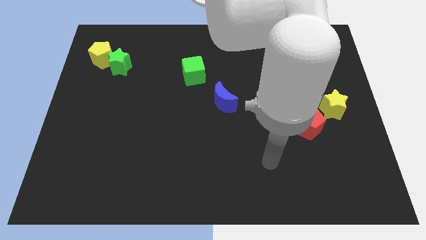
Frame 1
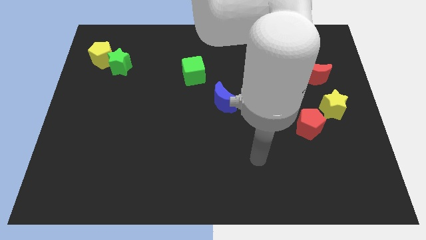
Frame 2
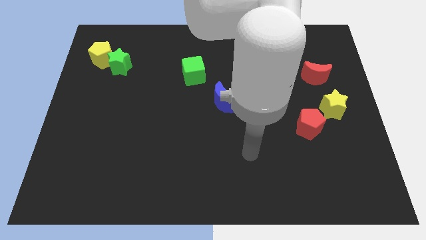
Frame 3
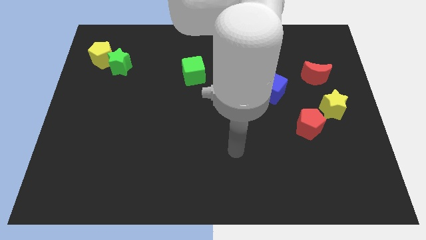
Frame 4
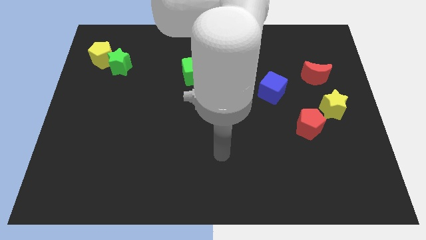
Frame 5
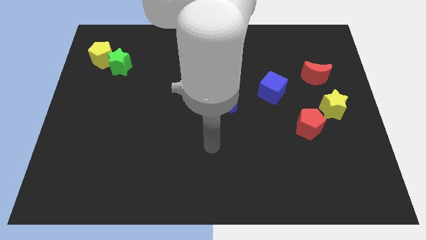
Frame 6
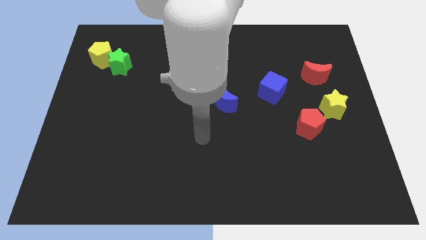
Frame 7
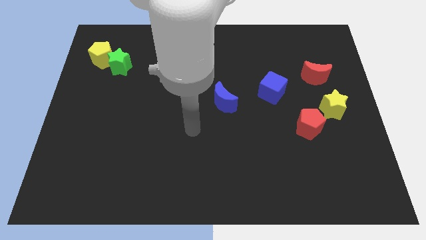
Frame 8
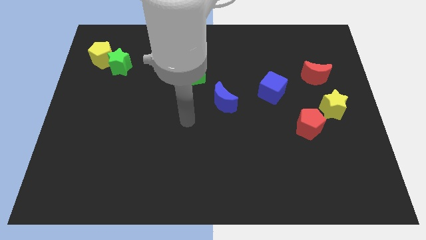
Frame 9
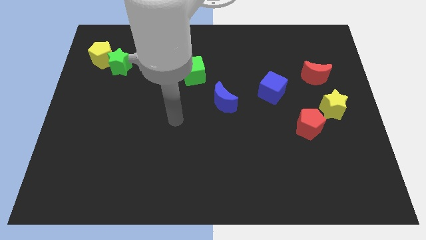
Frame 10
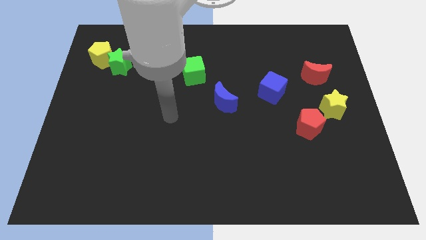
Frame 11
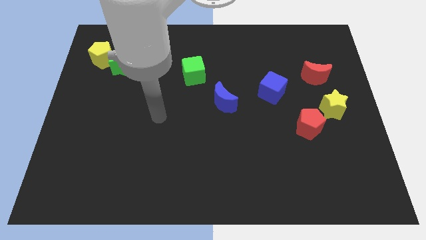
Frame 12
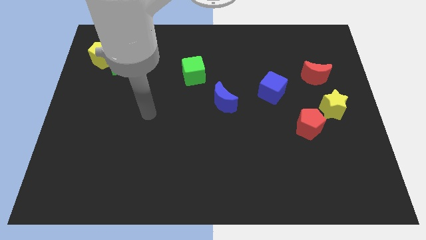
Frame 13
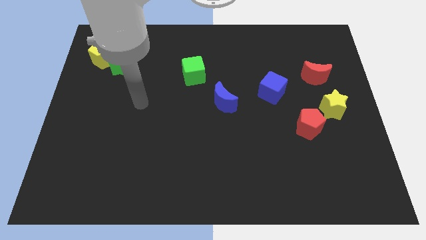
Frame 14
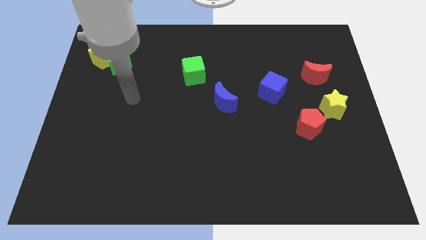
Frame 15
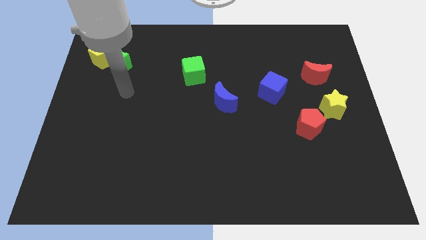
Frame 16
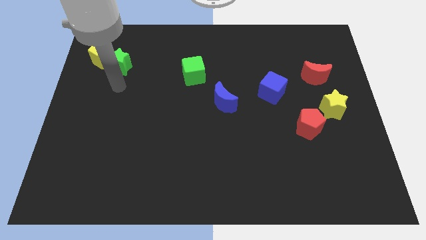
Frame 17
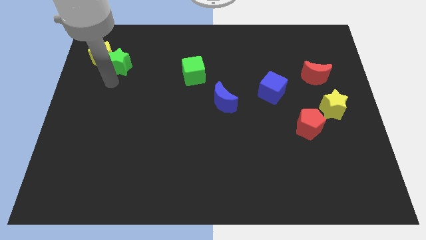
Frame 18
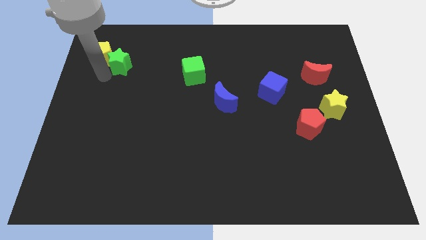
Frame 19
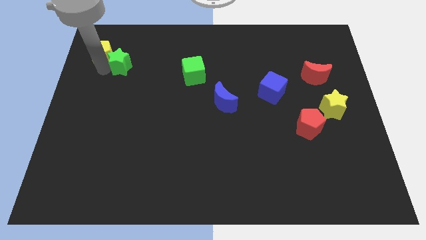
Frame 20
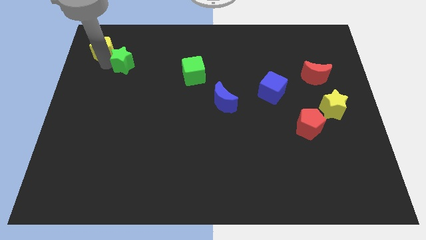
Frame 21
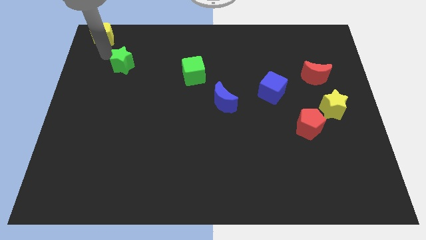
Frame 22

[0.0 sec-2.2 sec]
pull the green star apart from the yellow pentagon

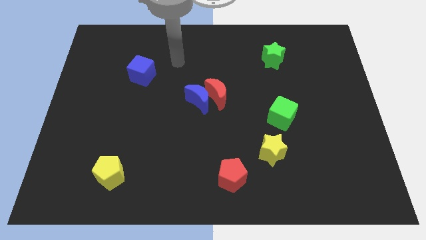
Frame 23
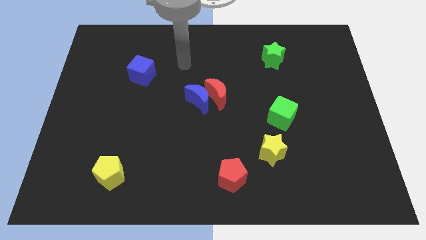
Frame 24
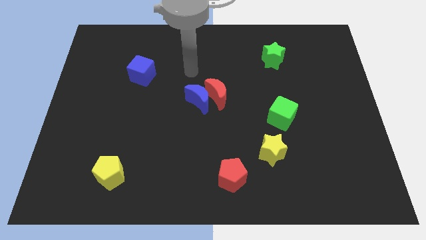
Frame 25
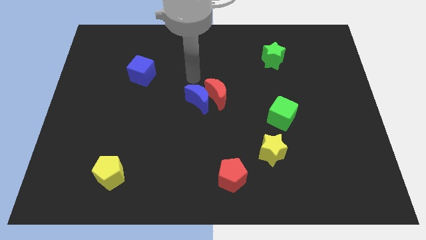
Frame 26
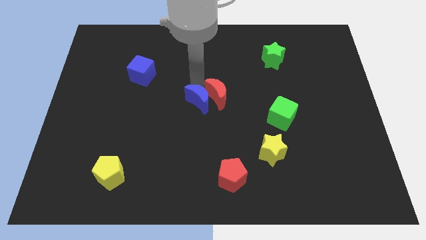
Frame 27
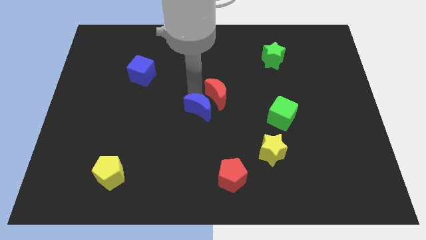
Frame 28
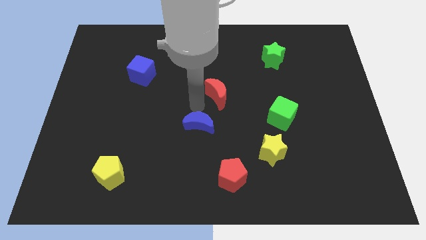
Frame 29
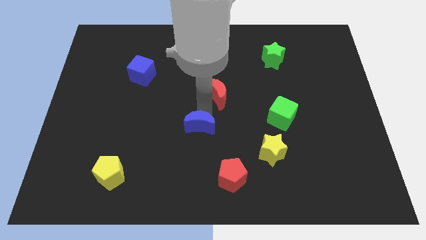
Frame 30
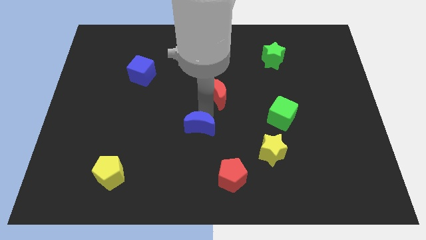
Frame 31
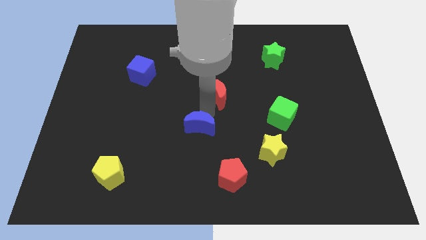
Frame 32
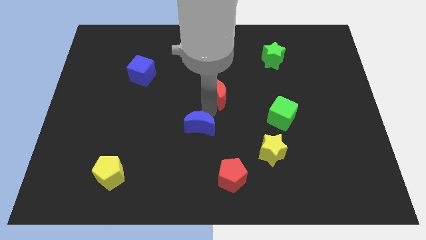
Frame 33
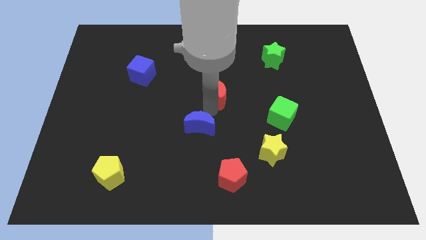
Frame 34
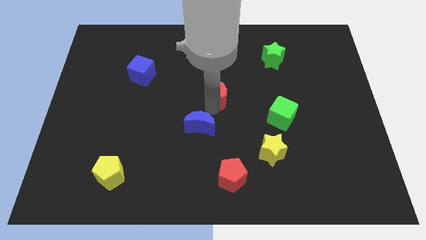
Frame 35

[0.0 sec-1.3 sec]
separate the red moon from the blue moon

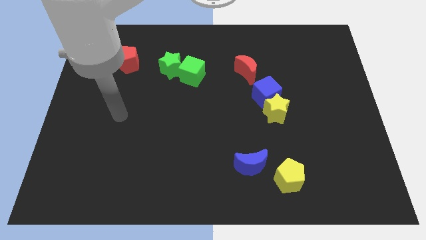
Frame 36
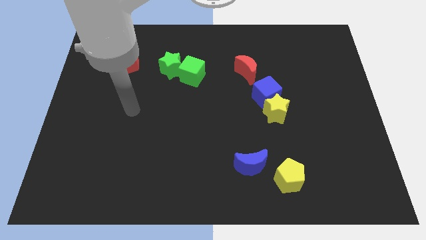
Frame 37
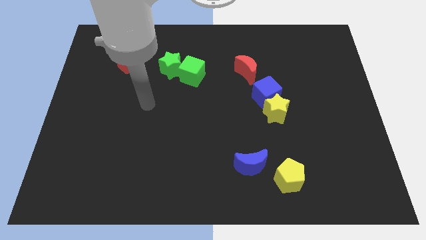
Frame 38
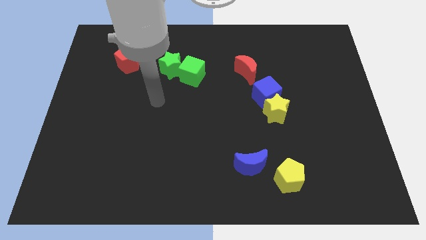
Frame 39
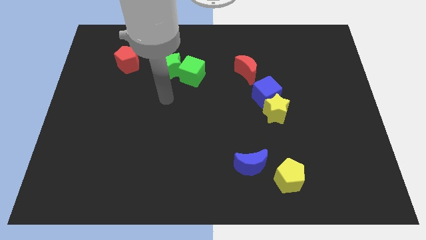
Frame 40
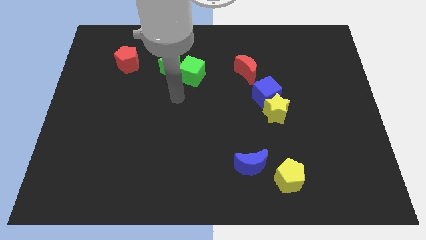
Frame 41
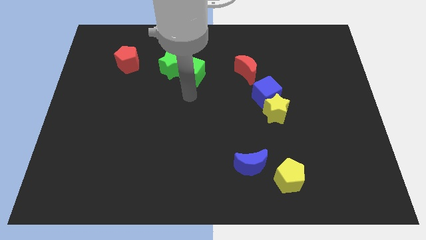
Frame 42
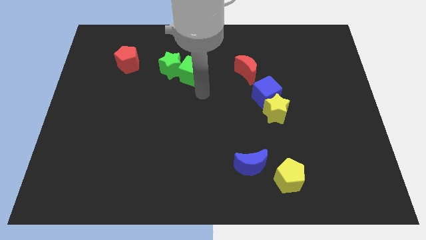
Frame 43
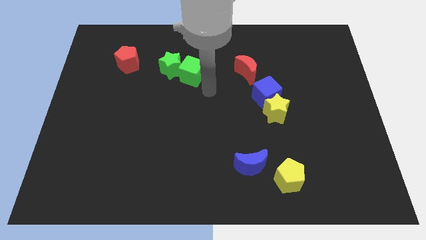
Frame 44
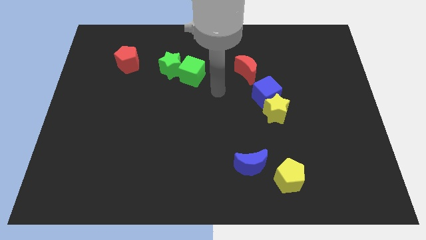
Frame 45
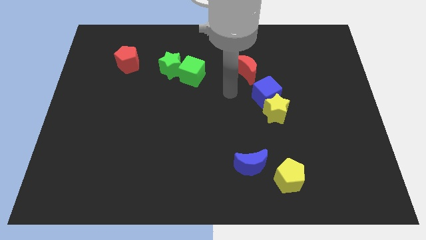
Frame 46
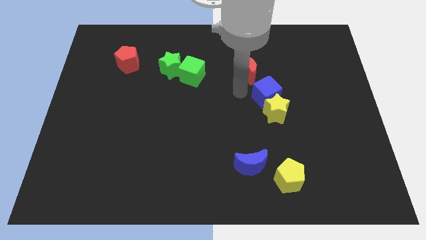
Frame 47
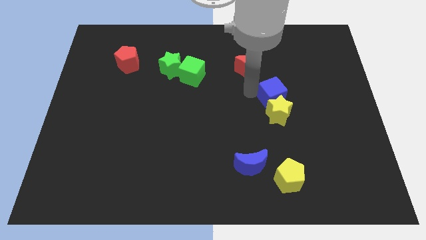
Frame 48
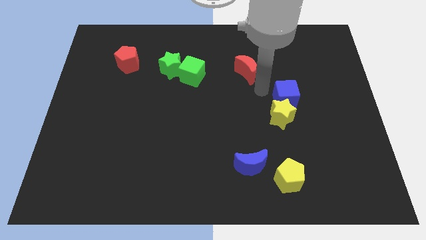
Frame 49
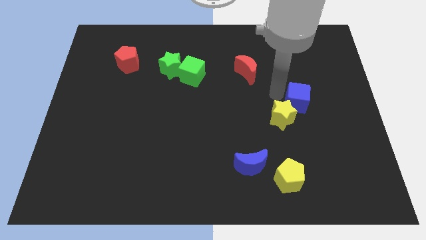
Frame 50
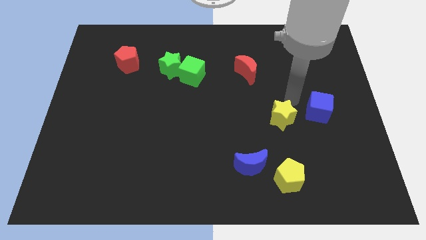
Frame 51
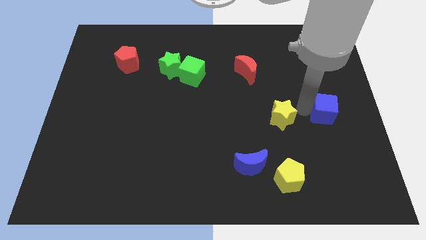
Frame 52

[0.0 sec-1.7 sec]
separate the yellow star from the blue cube

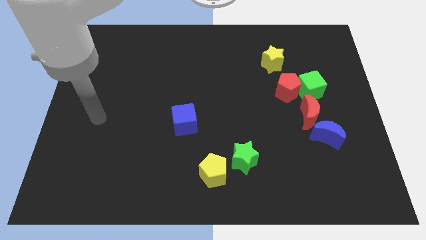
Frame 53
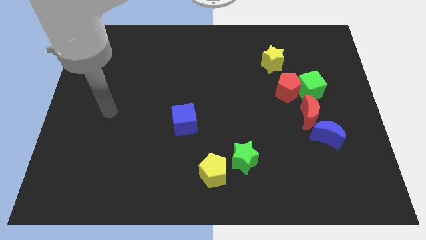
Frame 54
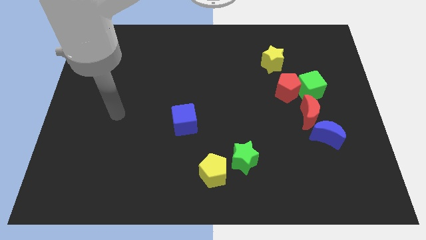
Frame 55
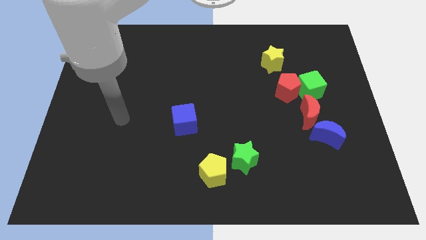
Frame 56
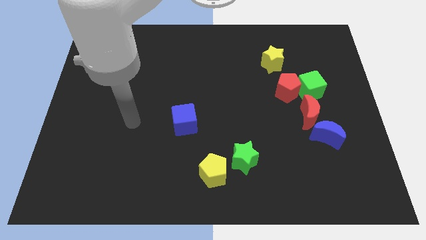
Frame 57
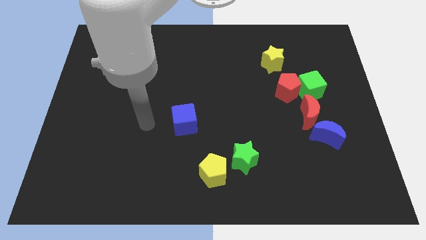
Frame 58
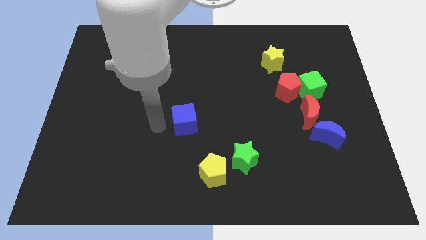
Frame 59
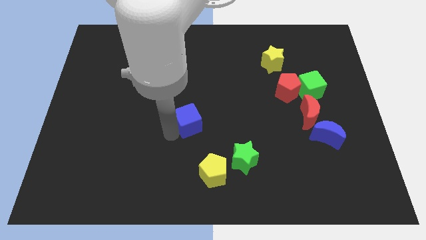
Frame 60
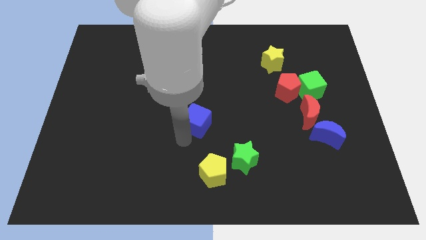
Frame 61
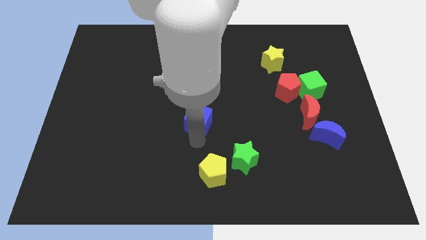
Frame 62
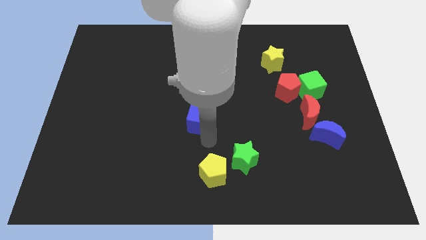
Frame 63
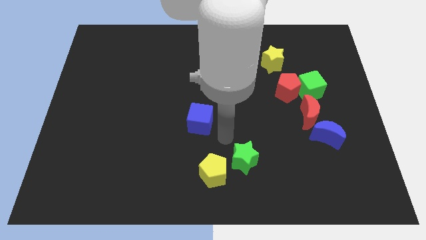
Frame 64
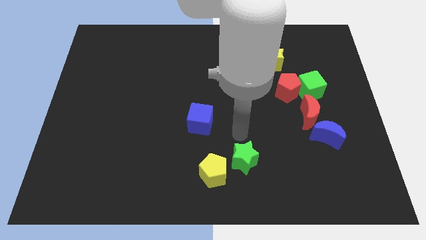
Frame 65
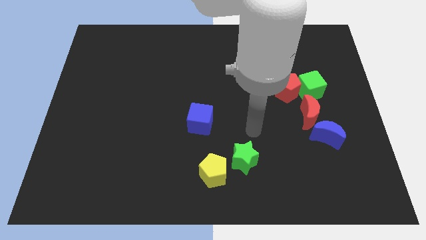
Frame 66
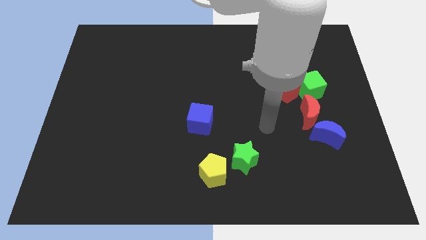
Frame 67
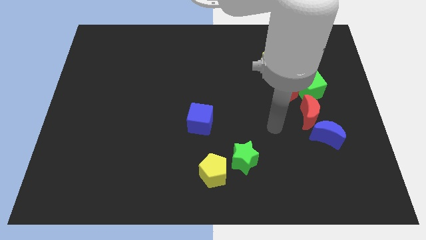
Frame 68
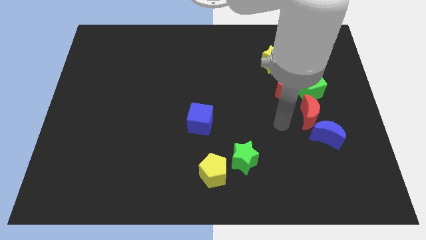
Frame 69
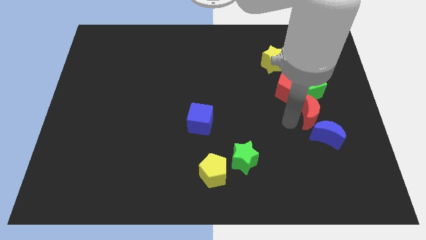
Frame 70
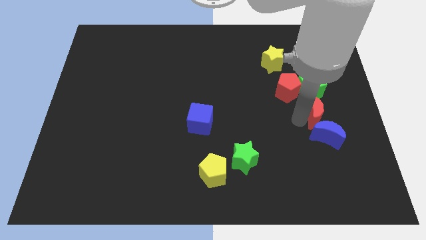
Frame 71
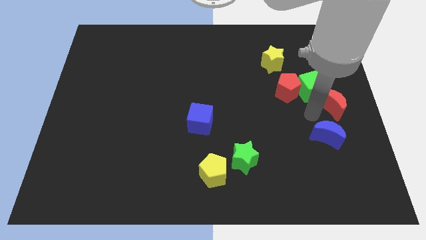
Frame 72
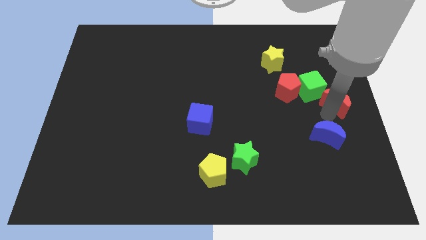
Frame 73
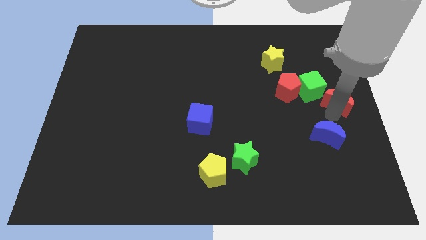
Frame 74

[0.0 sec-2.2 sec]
separate the blue moon from the red moon

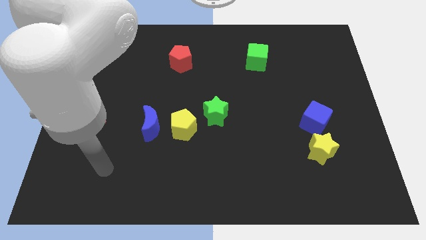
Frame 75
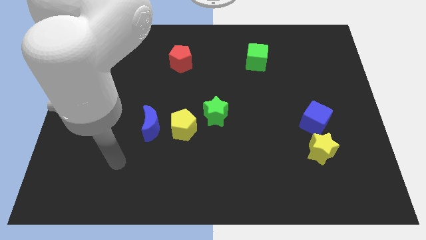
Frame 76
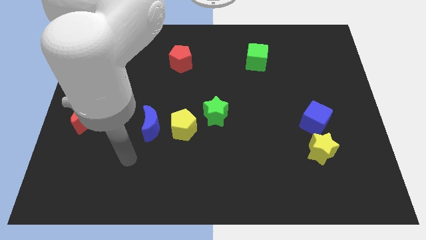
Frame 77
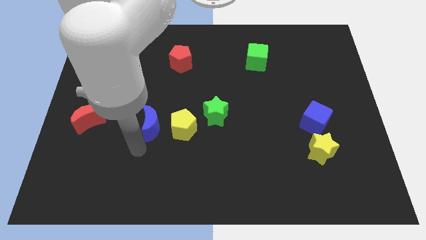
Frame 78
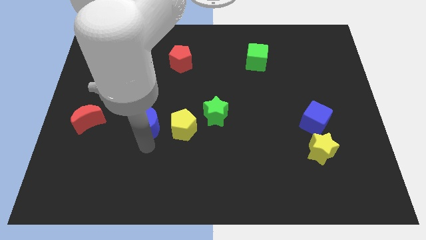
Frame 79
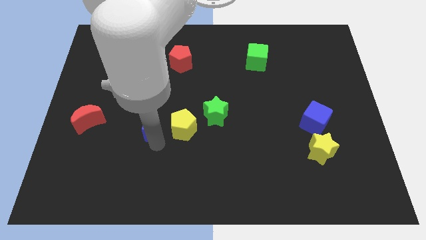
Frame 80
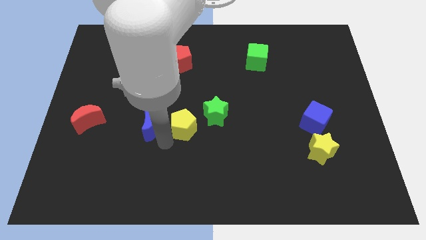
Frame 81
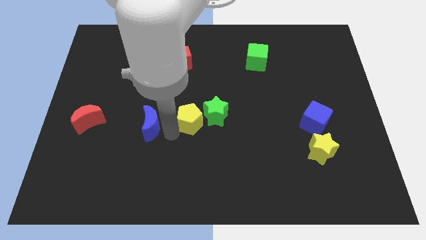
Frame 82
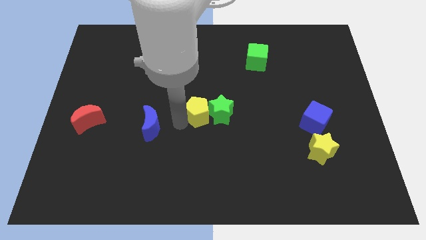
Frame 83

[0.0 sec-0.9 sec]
move the blue moon away from the yellow pentagon

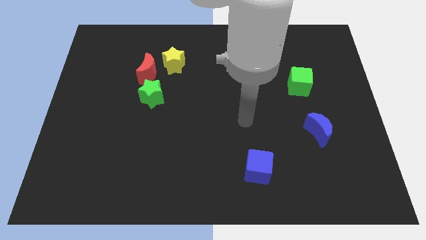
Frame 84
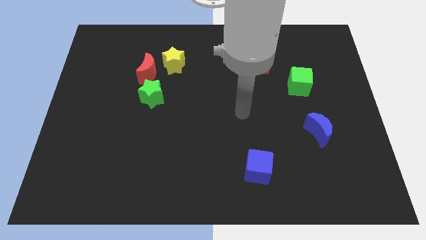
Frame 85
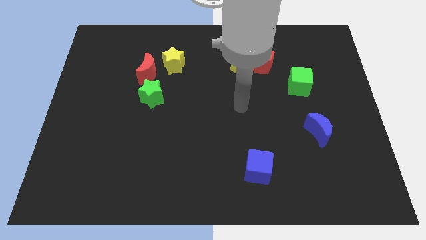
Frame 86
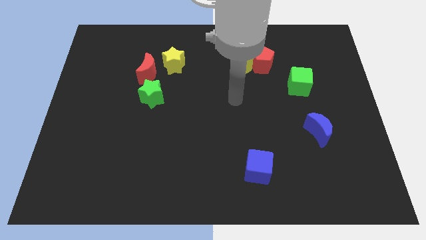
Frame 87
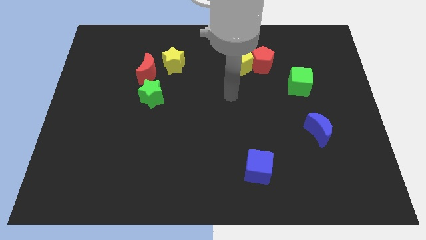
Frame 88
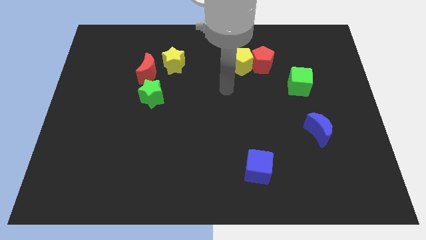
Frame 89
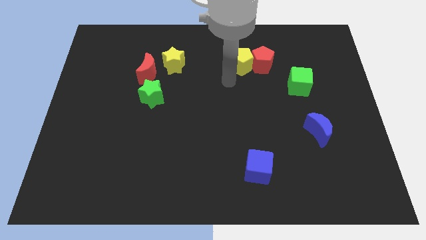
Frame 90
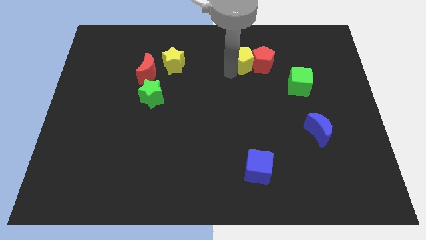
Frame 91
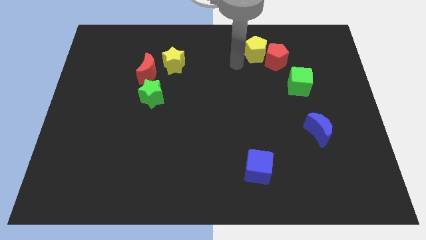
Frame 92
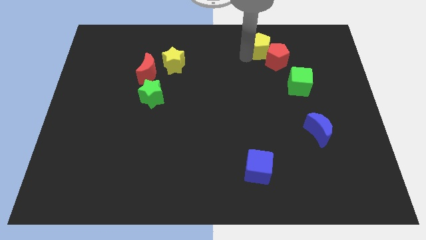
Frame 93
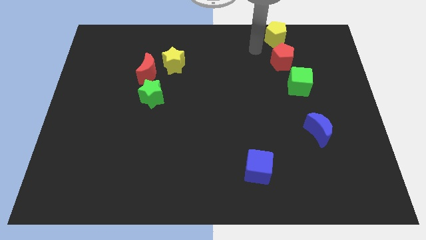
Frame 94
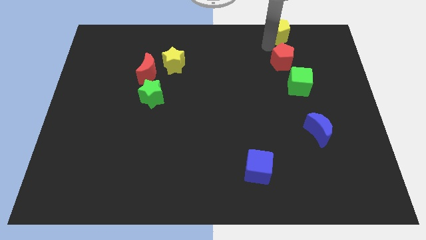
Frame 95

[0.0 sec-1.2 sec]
pull the red pentagon apart from the yellow pentagon
